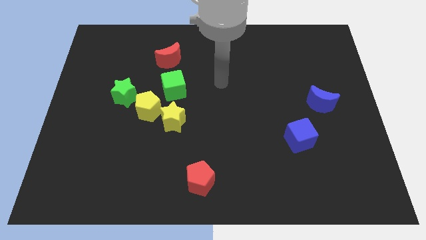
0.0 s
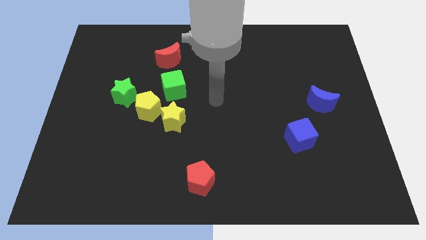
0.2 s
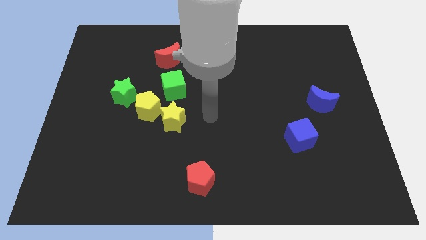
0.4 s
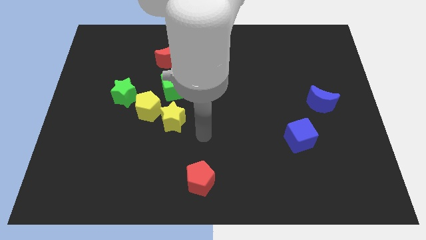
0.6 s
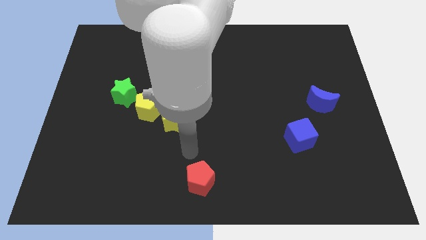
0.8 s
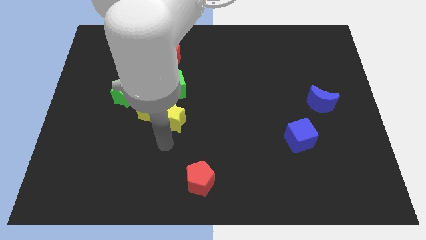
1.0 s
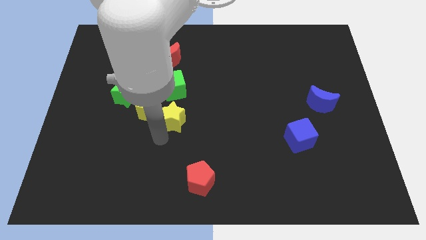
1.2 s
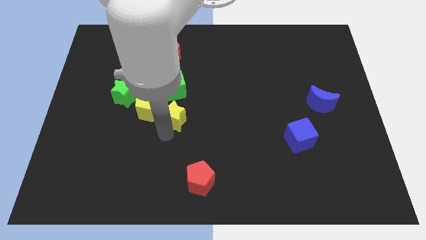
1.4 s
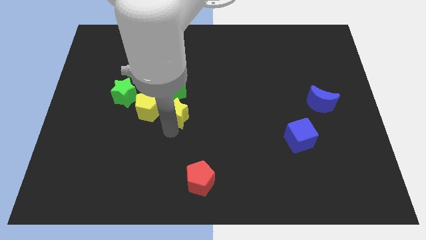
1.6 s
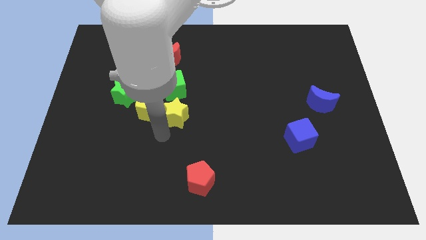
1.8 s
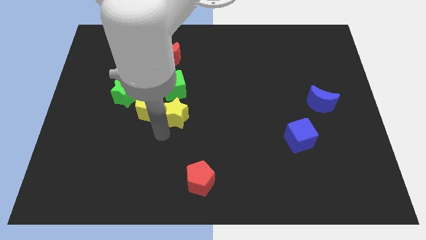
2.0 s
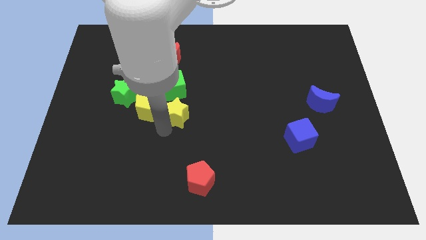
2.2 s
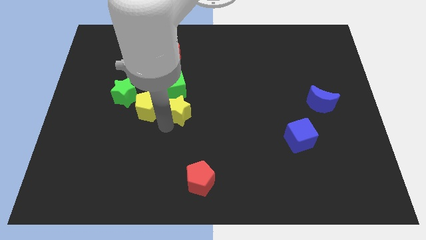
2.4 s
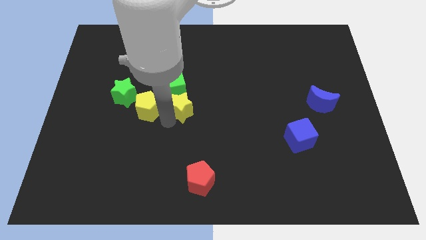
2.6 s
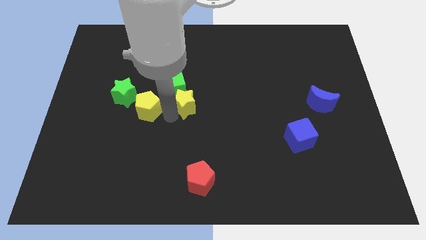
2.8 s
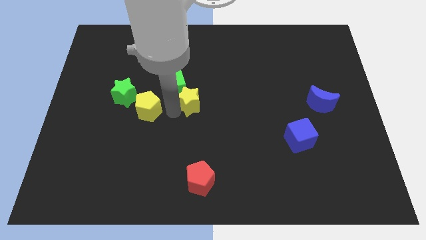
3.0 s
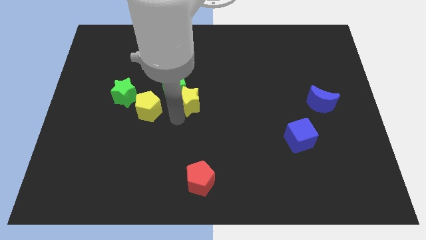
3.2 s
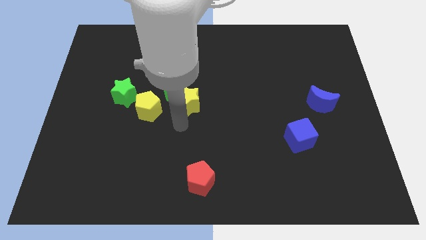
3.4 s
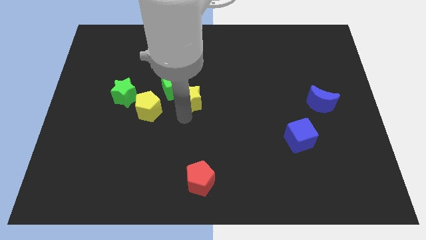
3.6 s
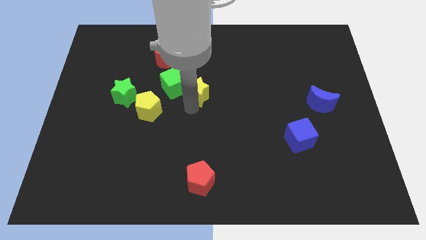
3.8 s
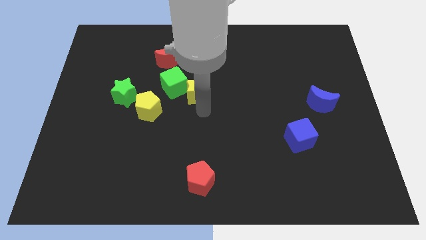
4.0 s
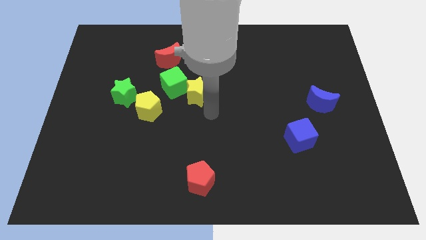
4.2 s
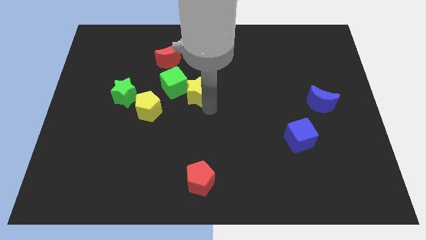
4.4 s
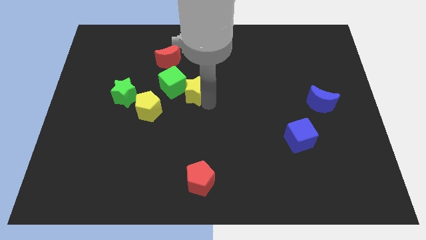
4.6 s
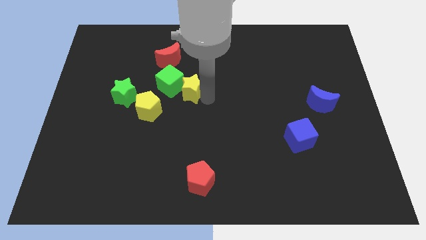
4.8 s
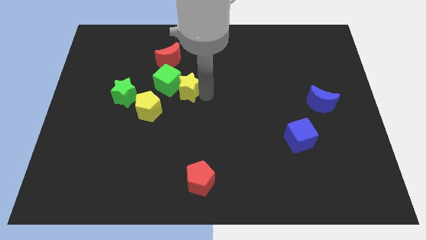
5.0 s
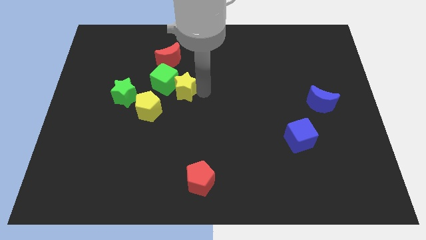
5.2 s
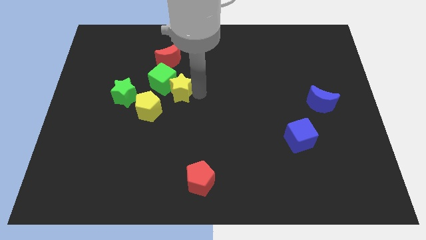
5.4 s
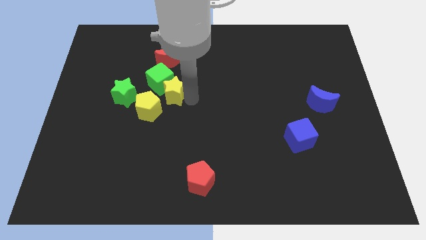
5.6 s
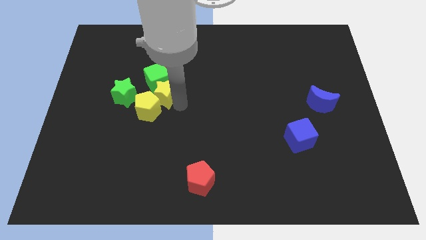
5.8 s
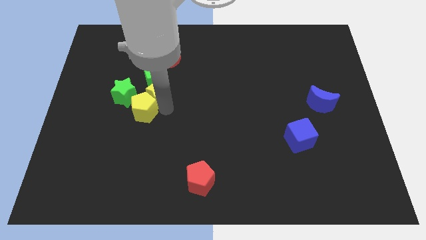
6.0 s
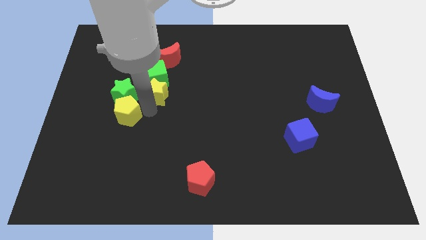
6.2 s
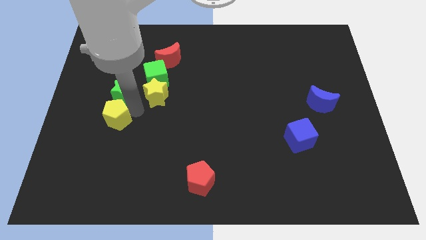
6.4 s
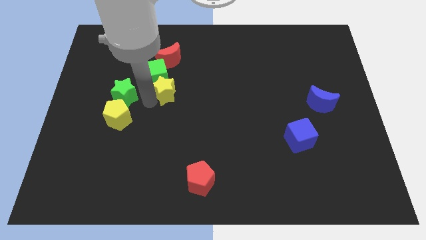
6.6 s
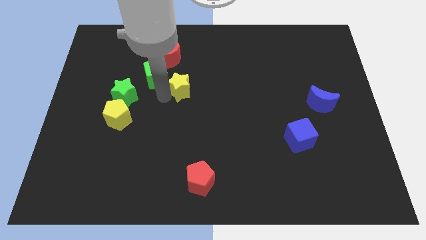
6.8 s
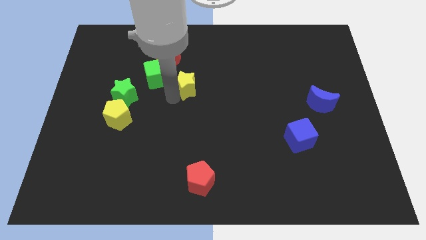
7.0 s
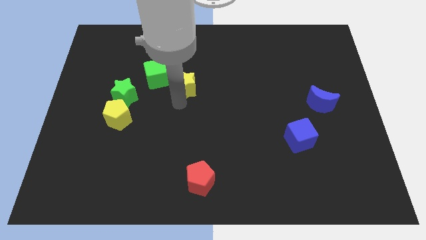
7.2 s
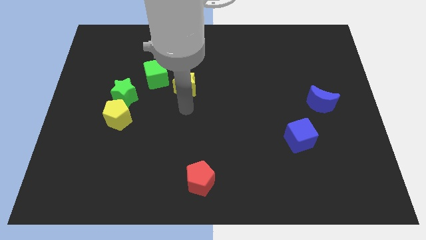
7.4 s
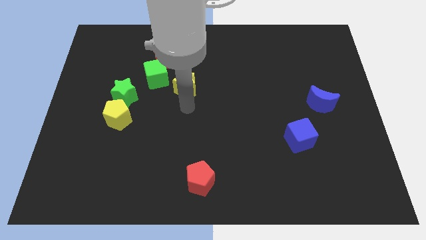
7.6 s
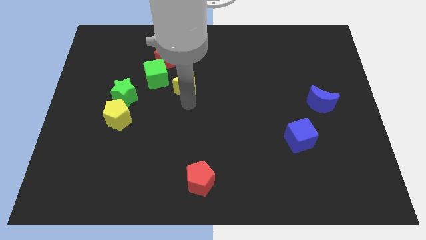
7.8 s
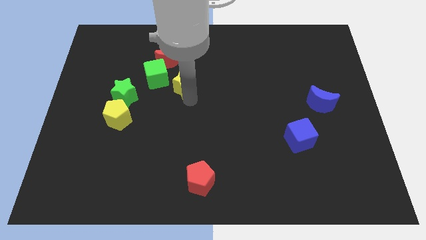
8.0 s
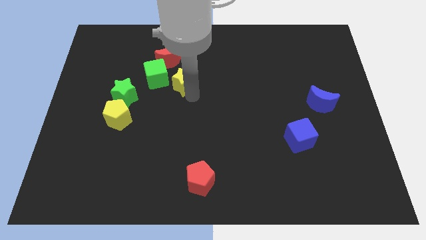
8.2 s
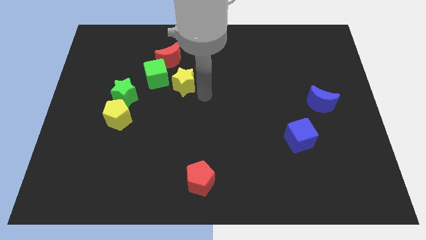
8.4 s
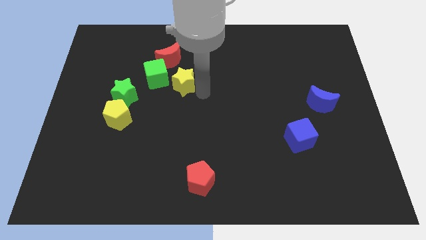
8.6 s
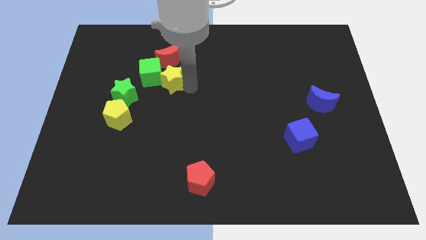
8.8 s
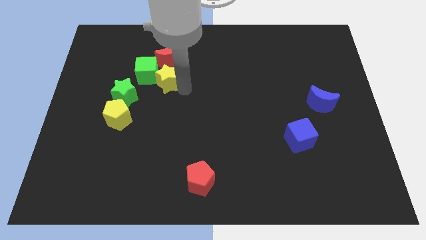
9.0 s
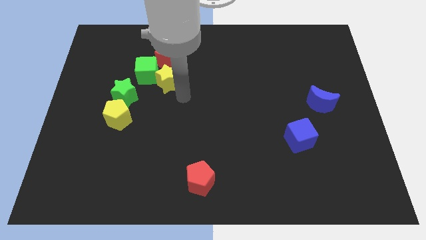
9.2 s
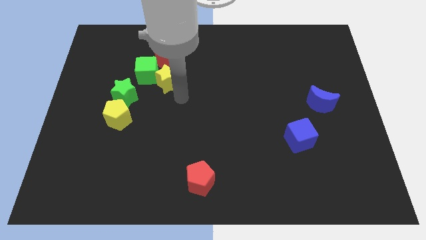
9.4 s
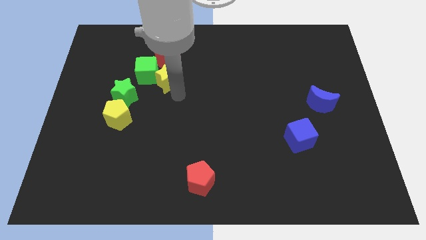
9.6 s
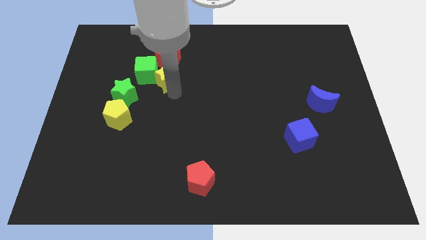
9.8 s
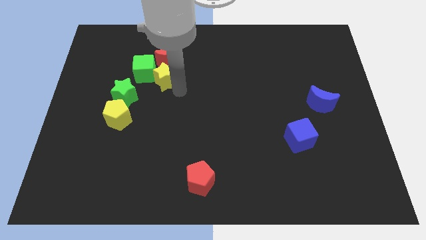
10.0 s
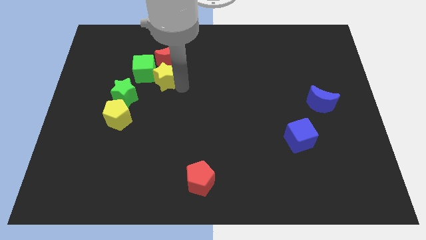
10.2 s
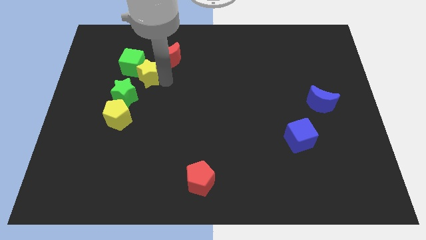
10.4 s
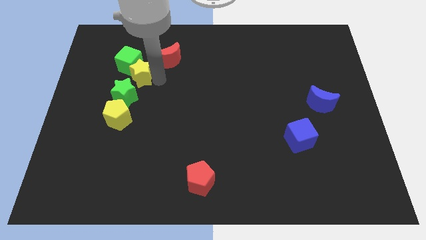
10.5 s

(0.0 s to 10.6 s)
push the yellow star to the top of the green star

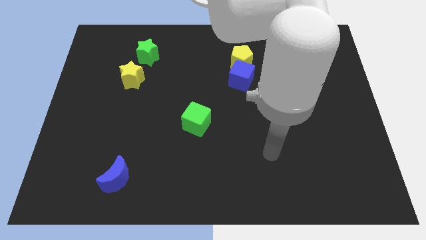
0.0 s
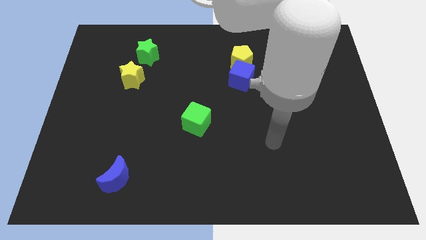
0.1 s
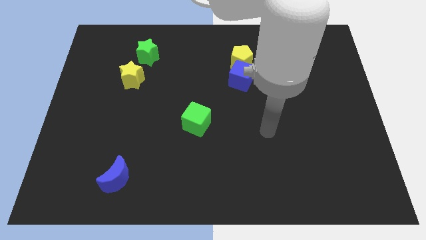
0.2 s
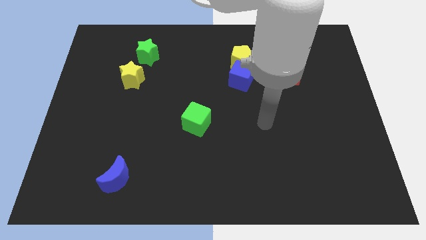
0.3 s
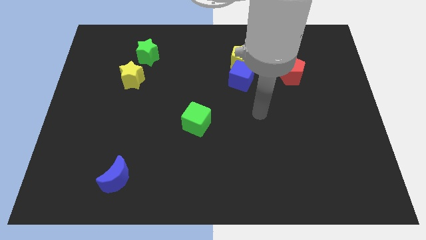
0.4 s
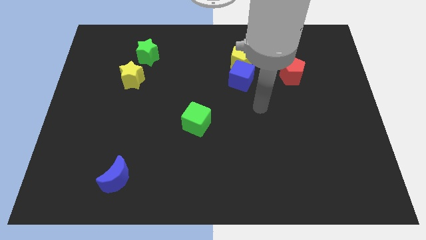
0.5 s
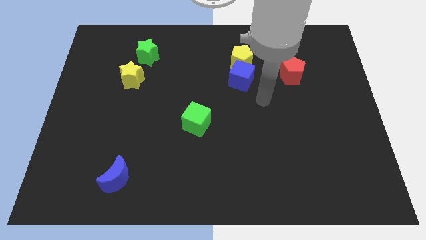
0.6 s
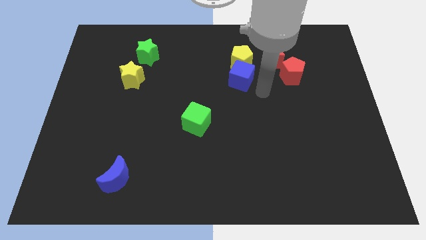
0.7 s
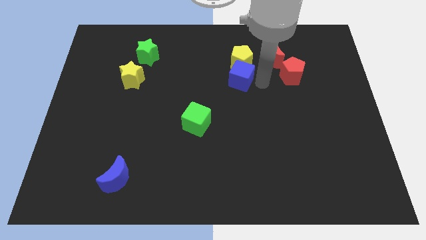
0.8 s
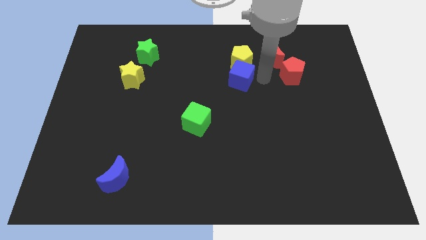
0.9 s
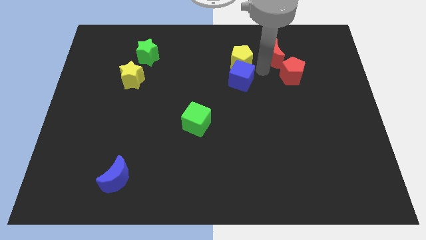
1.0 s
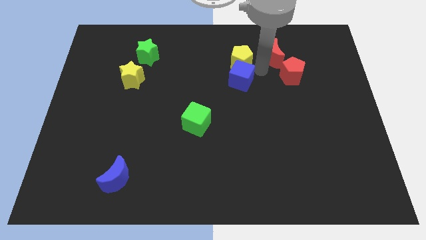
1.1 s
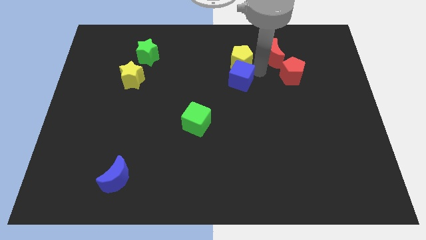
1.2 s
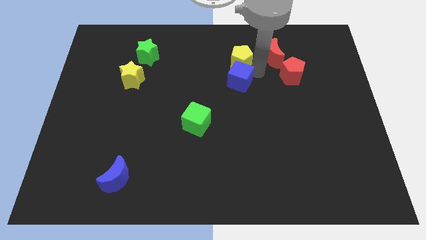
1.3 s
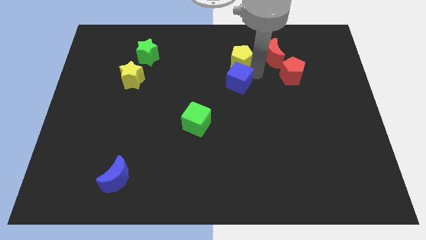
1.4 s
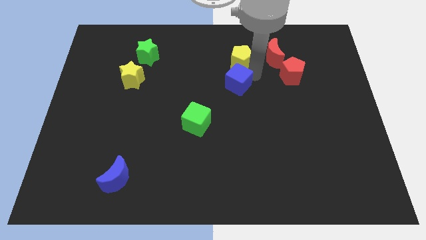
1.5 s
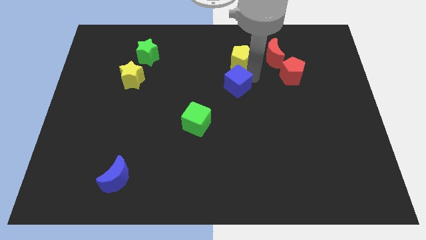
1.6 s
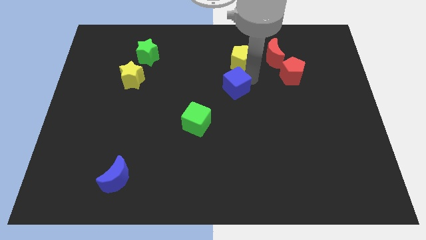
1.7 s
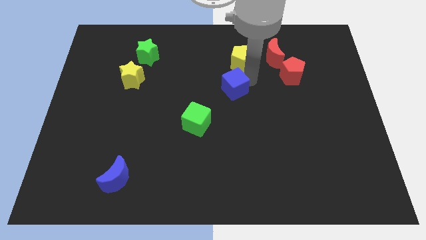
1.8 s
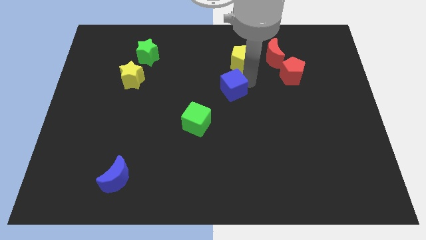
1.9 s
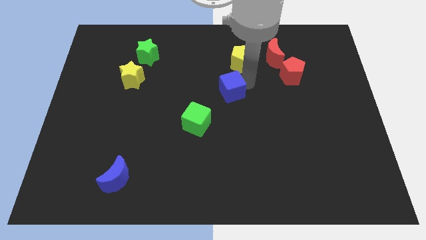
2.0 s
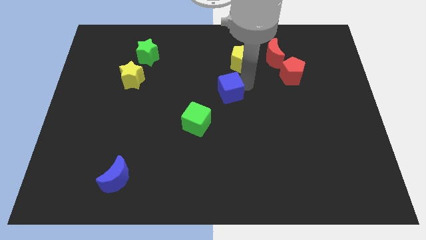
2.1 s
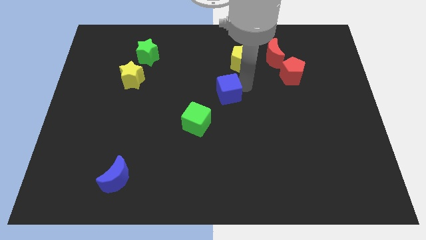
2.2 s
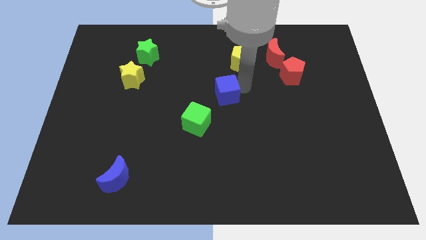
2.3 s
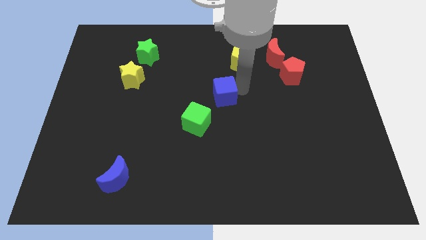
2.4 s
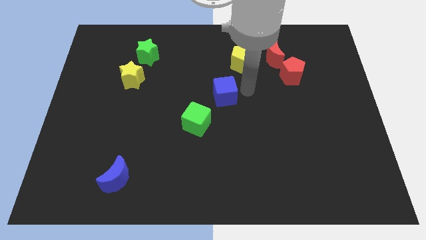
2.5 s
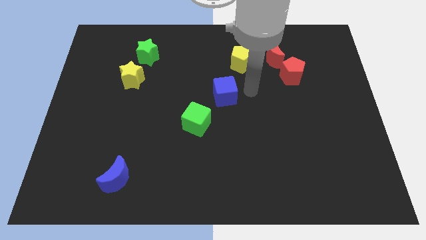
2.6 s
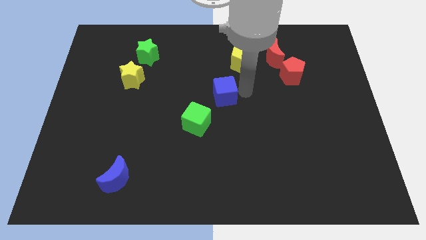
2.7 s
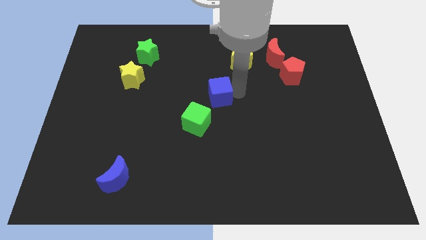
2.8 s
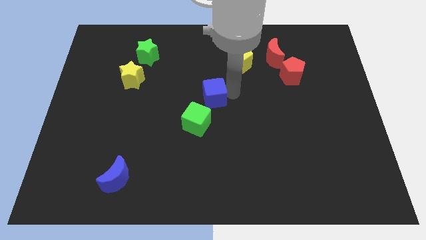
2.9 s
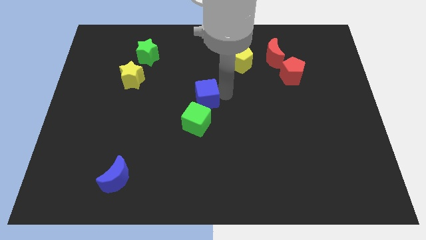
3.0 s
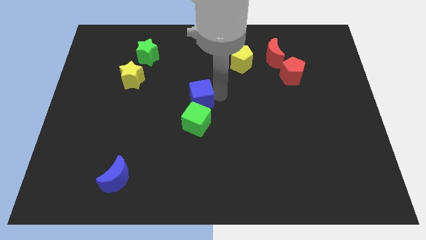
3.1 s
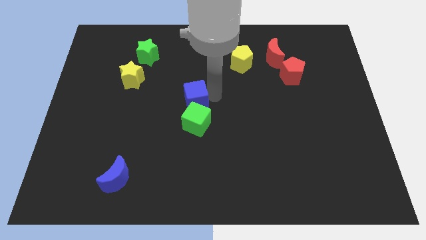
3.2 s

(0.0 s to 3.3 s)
push the blue cube to the top left of the green cube
